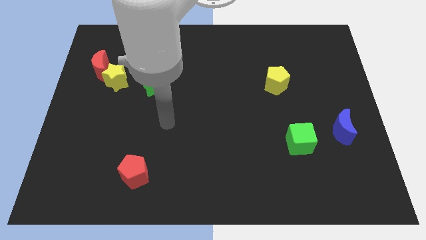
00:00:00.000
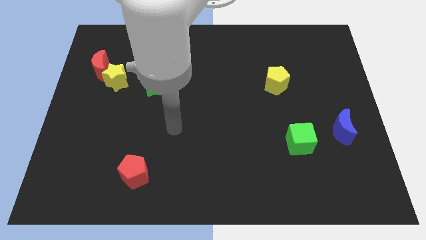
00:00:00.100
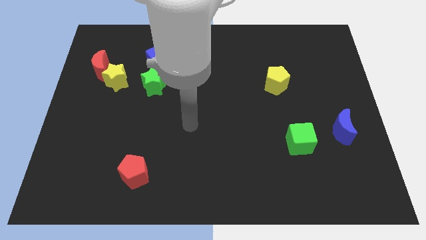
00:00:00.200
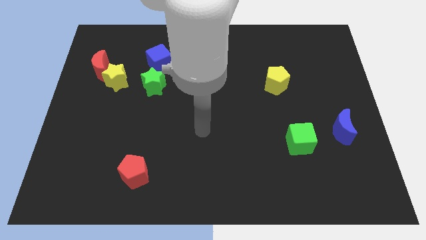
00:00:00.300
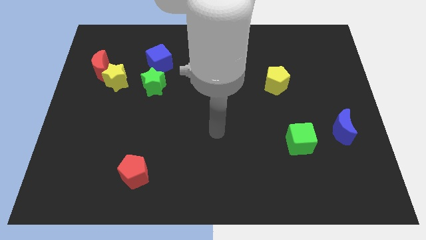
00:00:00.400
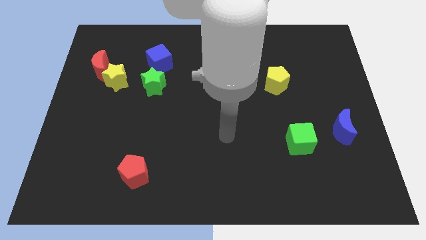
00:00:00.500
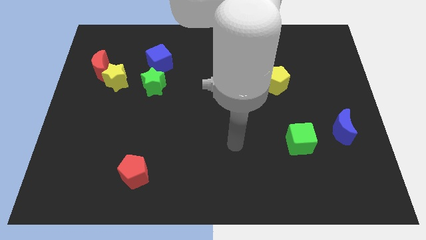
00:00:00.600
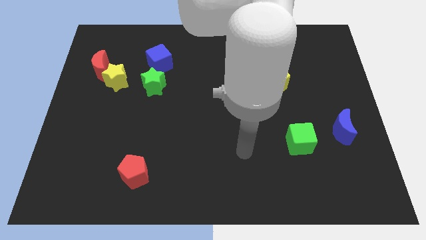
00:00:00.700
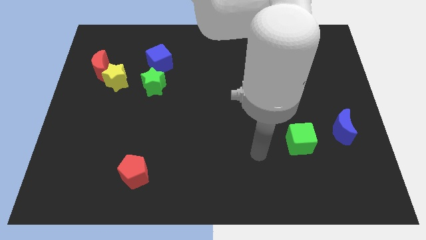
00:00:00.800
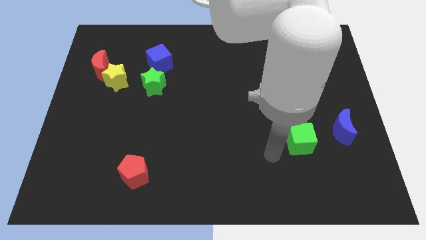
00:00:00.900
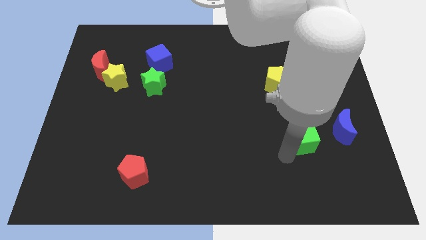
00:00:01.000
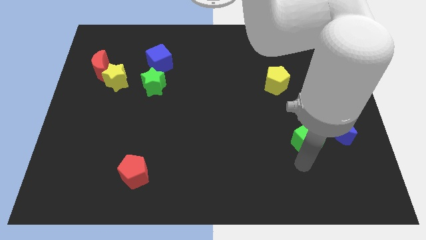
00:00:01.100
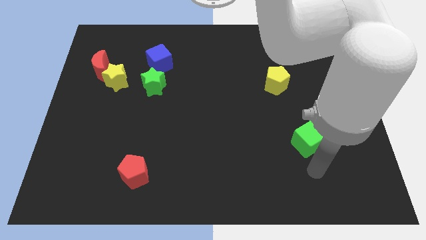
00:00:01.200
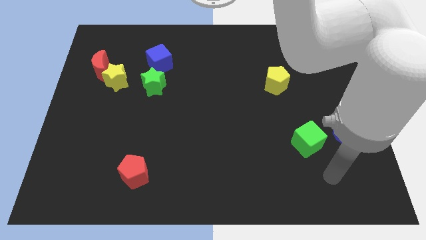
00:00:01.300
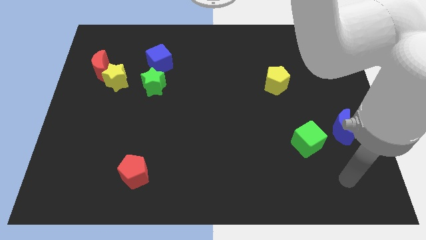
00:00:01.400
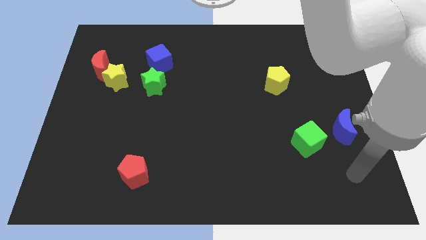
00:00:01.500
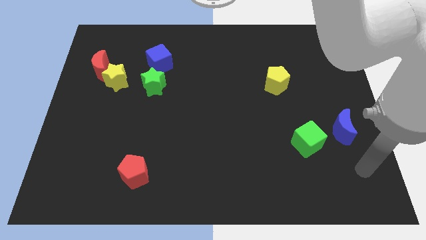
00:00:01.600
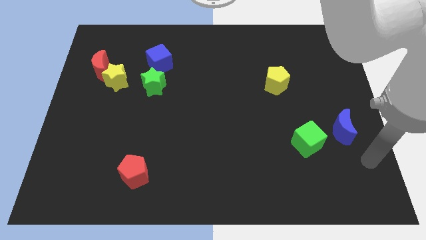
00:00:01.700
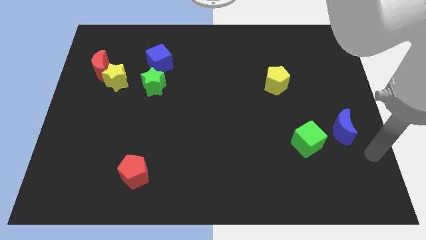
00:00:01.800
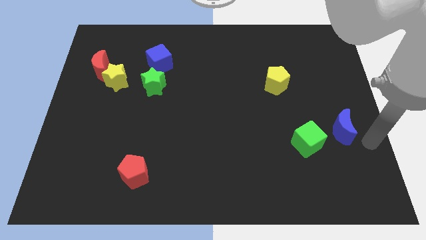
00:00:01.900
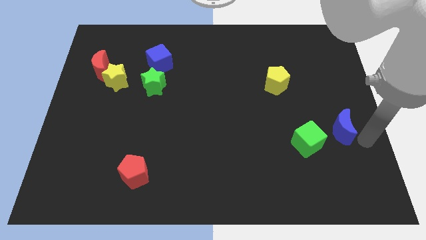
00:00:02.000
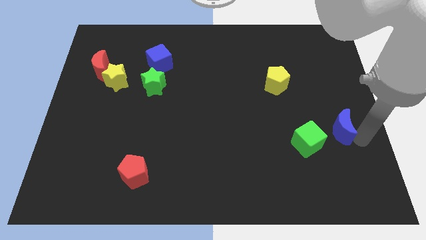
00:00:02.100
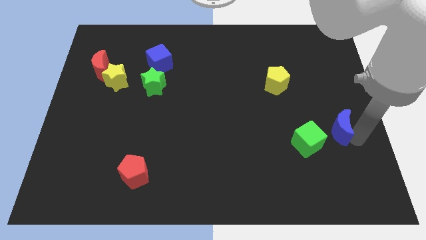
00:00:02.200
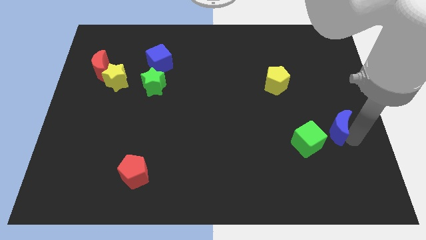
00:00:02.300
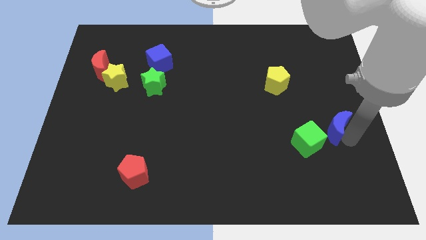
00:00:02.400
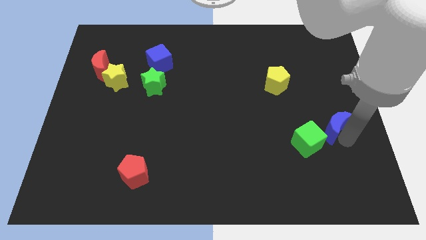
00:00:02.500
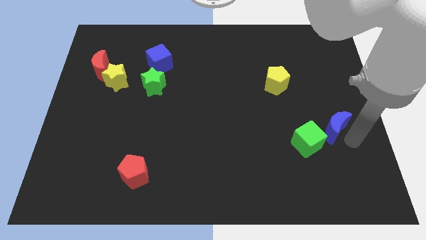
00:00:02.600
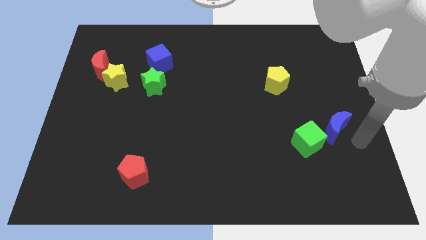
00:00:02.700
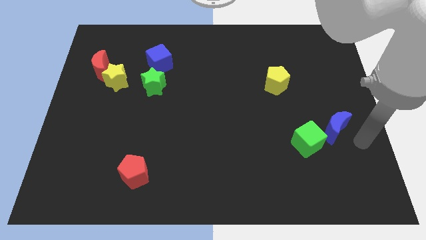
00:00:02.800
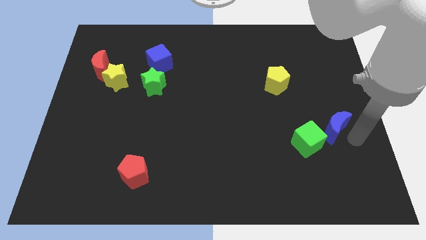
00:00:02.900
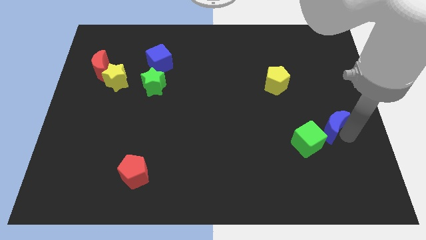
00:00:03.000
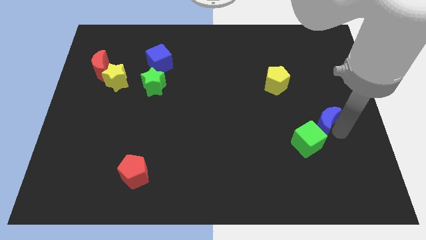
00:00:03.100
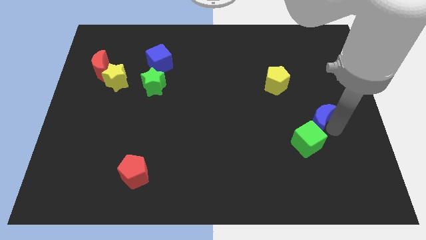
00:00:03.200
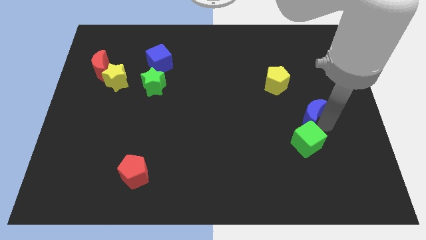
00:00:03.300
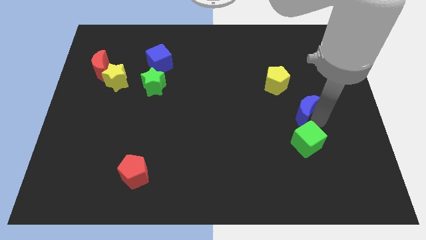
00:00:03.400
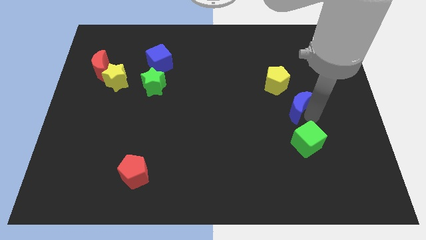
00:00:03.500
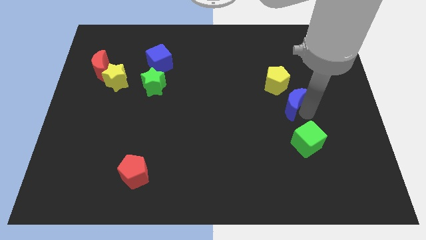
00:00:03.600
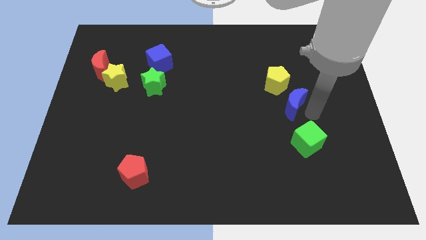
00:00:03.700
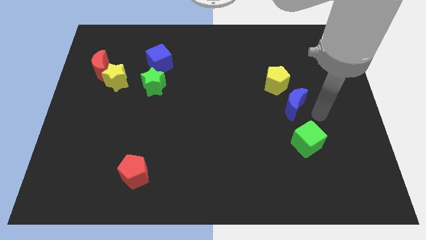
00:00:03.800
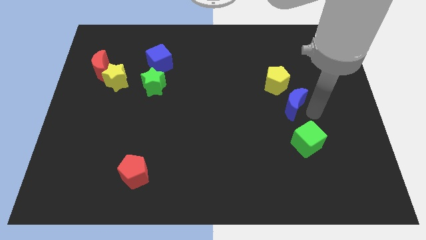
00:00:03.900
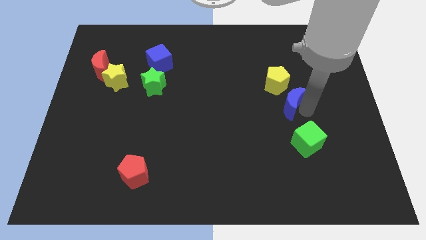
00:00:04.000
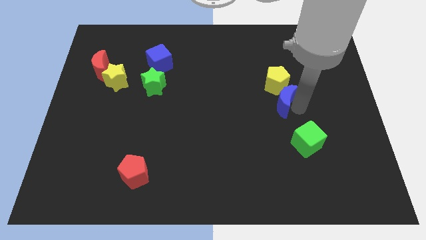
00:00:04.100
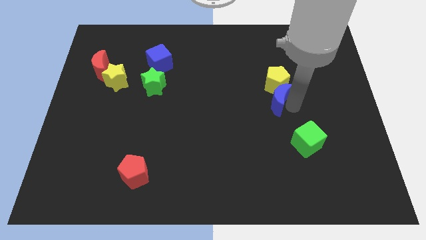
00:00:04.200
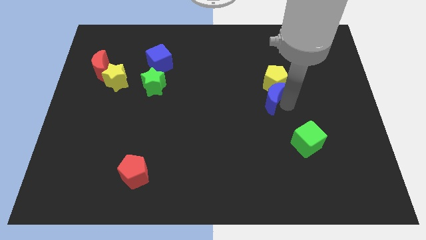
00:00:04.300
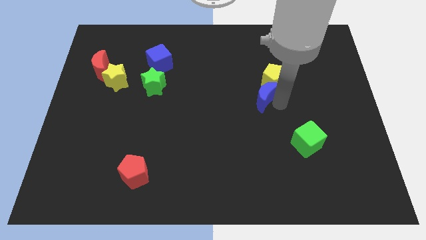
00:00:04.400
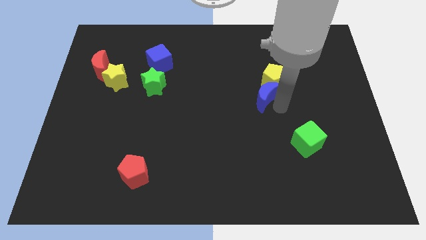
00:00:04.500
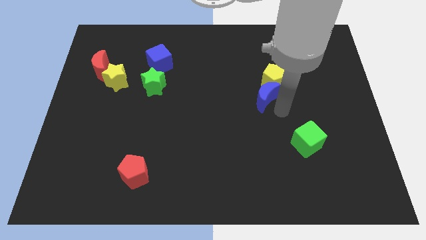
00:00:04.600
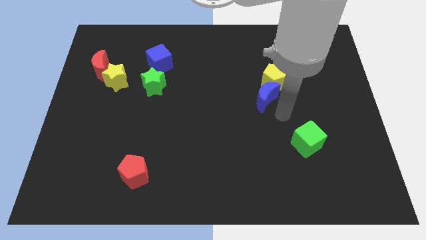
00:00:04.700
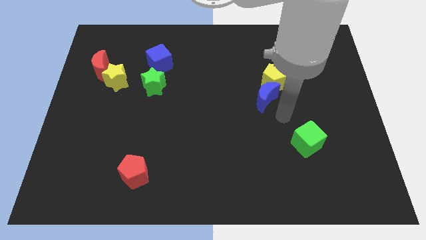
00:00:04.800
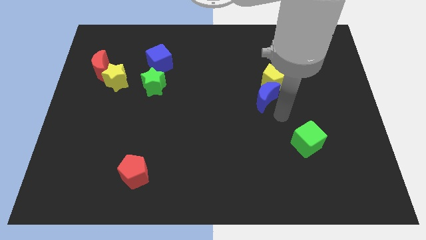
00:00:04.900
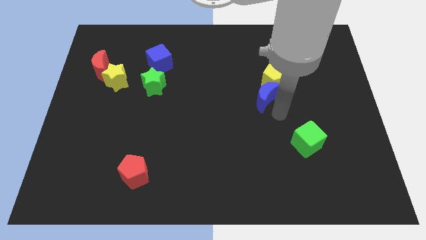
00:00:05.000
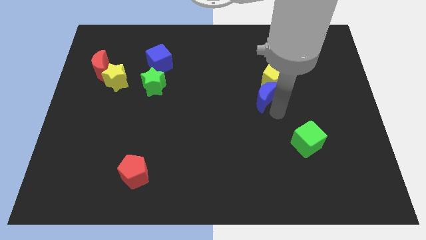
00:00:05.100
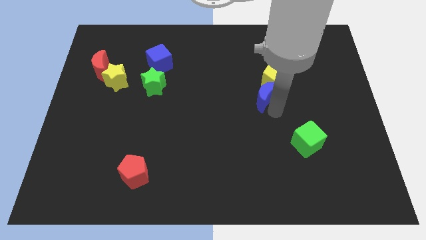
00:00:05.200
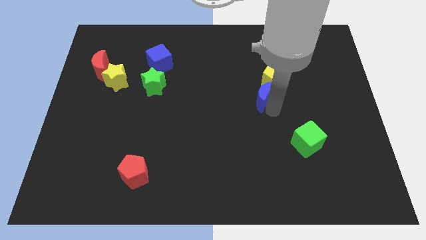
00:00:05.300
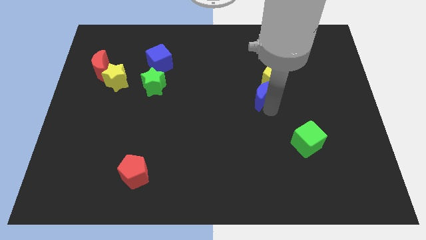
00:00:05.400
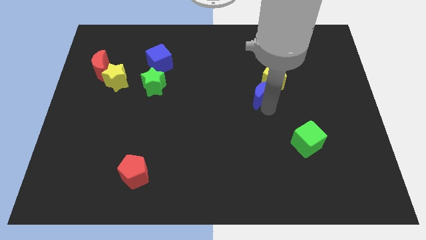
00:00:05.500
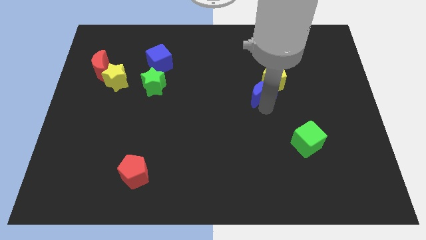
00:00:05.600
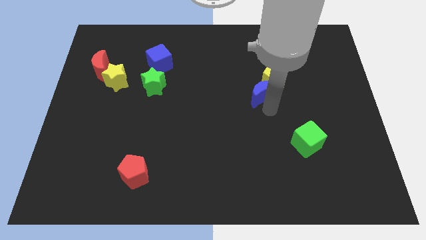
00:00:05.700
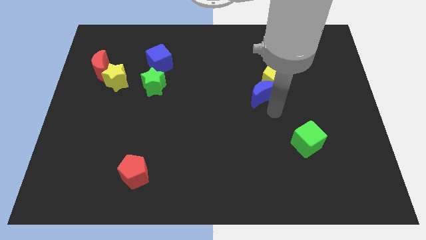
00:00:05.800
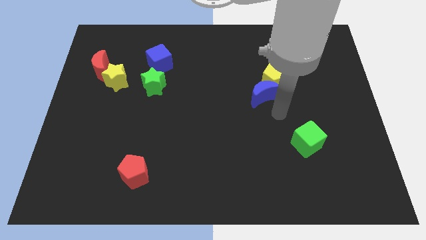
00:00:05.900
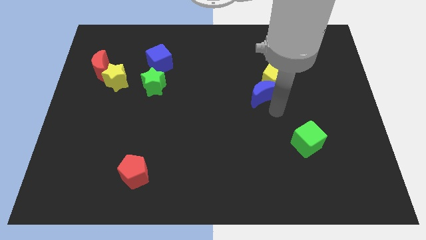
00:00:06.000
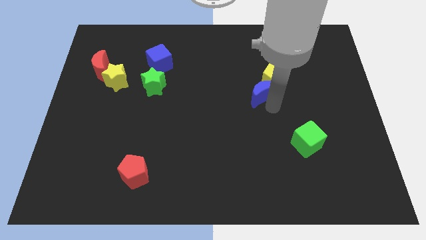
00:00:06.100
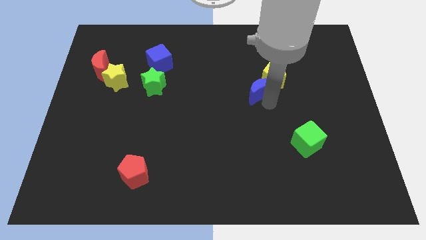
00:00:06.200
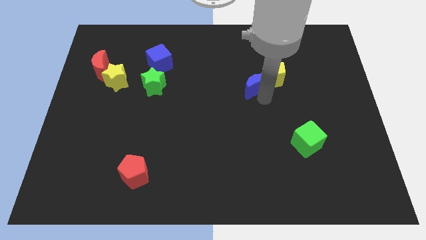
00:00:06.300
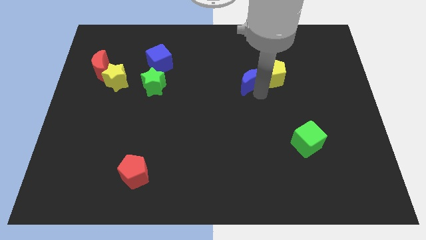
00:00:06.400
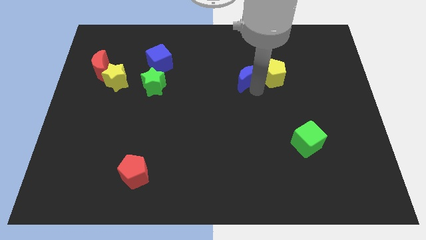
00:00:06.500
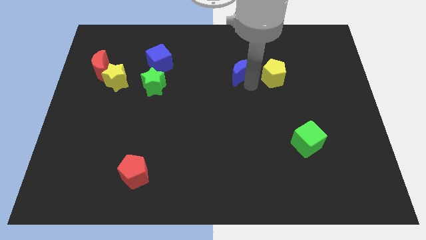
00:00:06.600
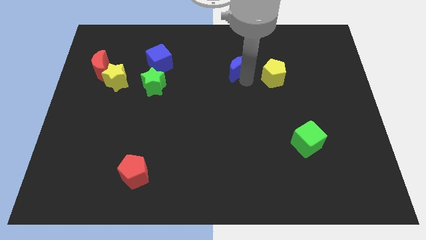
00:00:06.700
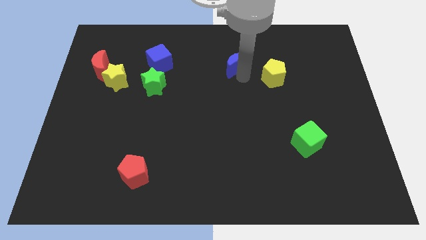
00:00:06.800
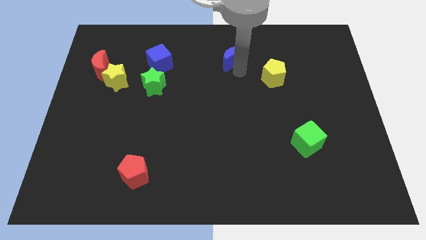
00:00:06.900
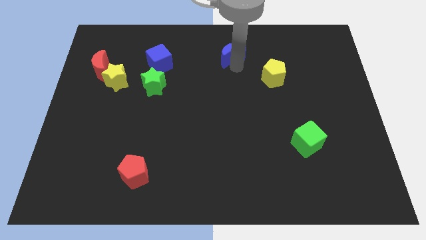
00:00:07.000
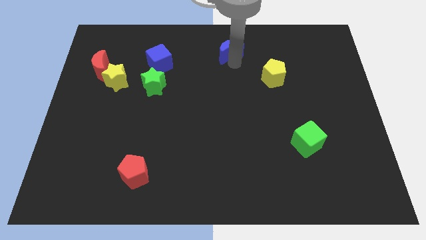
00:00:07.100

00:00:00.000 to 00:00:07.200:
slide the blue moon to the towards your base

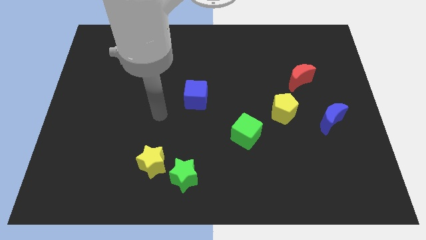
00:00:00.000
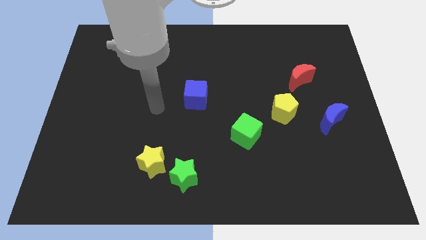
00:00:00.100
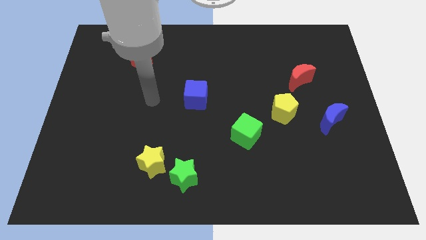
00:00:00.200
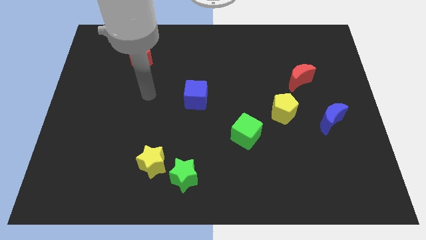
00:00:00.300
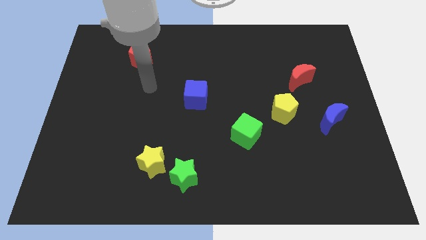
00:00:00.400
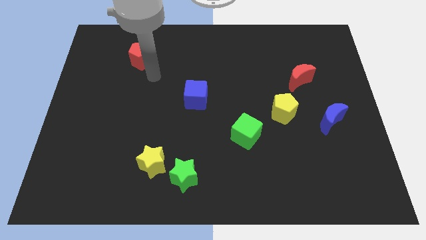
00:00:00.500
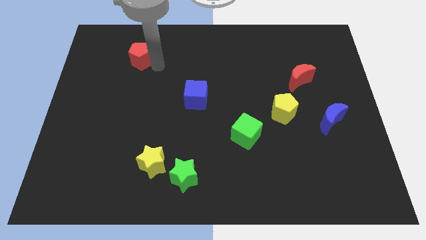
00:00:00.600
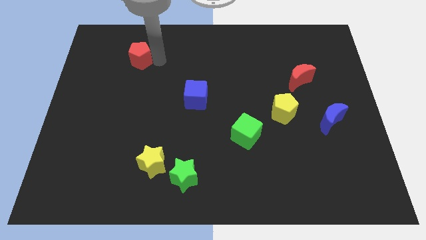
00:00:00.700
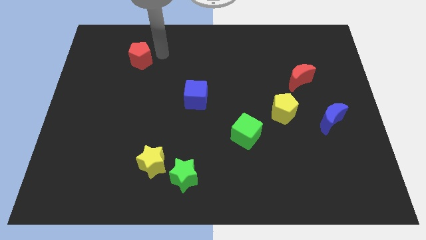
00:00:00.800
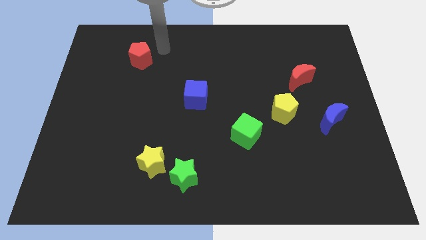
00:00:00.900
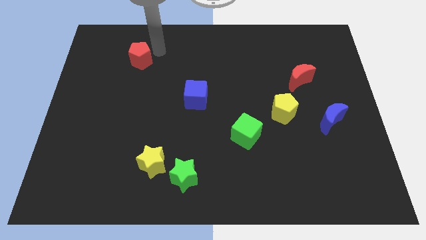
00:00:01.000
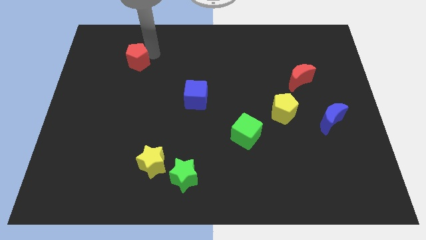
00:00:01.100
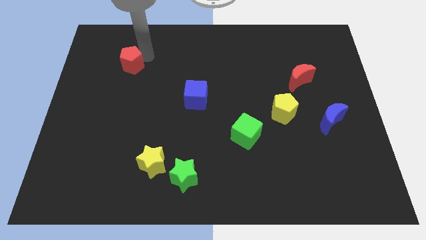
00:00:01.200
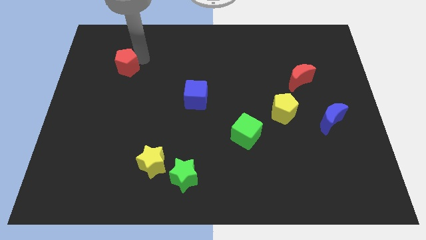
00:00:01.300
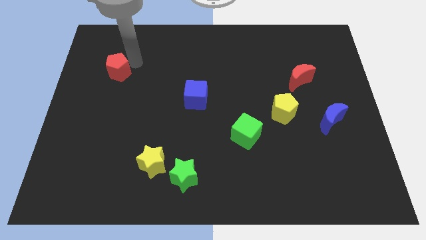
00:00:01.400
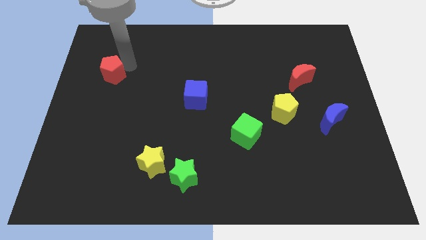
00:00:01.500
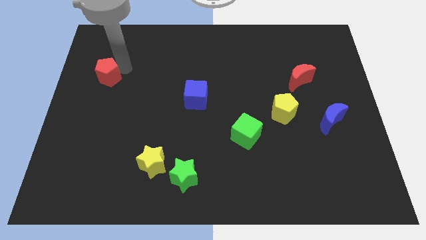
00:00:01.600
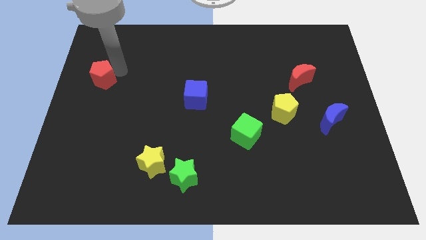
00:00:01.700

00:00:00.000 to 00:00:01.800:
push the red pentagon to the left side of the board
